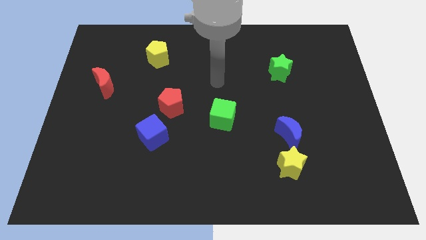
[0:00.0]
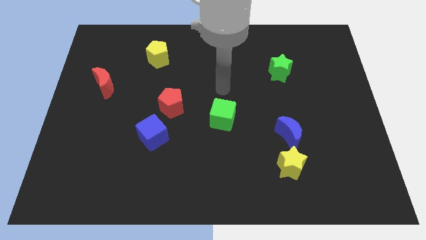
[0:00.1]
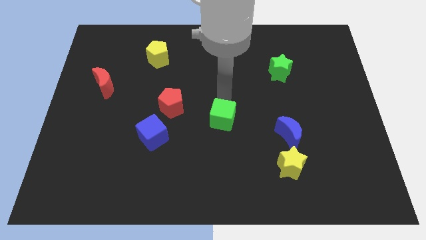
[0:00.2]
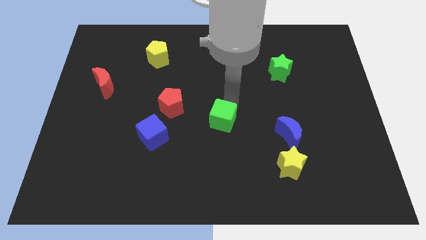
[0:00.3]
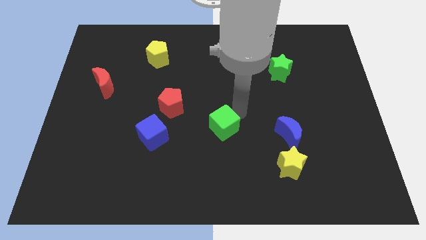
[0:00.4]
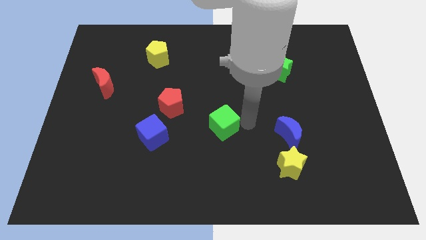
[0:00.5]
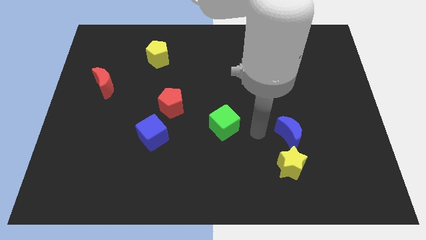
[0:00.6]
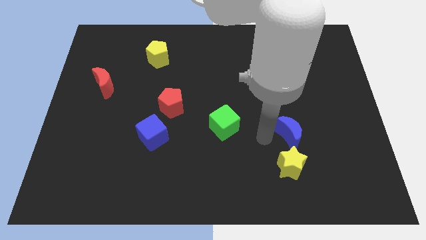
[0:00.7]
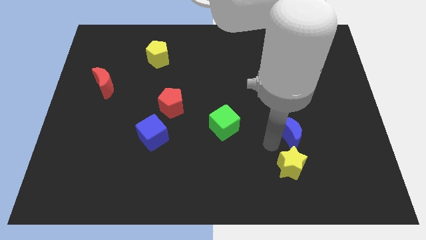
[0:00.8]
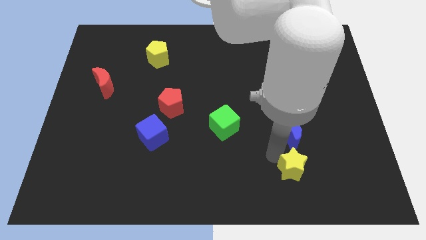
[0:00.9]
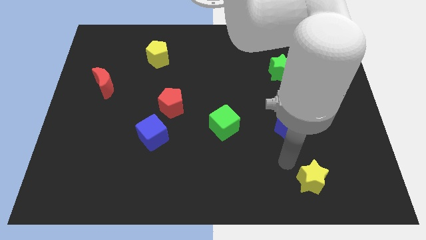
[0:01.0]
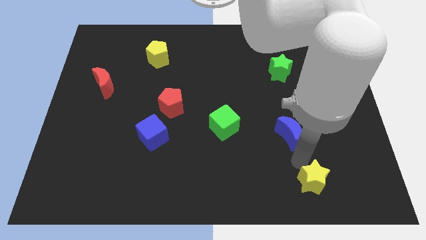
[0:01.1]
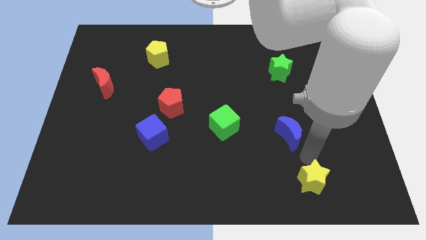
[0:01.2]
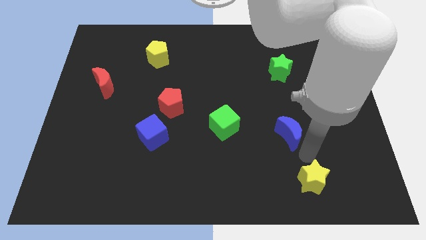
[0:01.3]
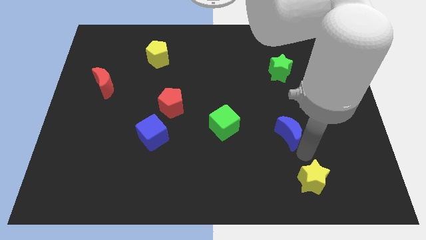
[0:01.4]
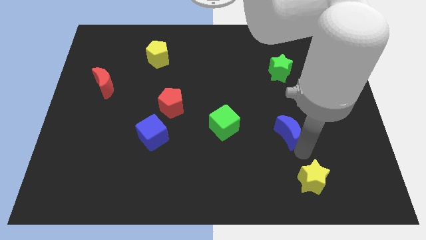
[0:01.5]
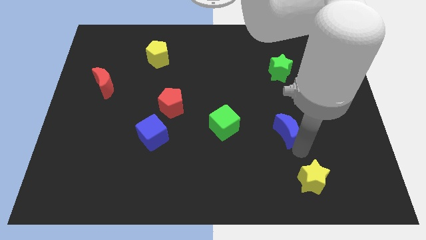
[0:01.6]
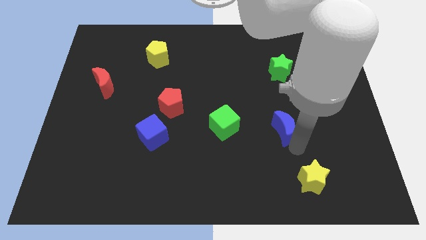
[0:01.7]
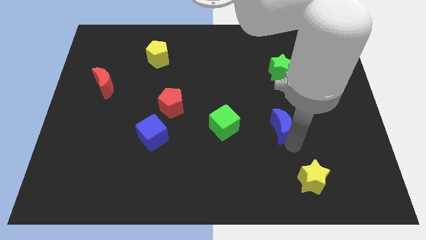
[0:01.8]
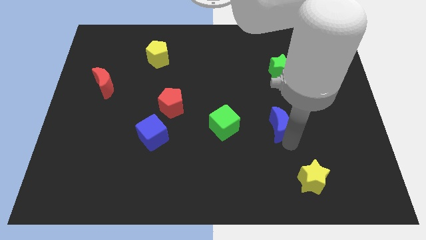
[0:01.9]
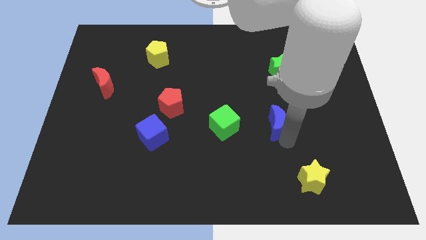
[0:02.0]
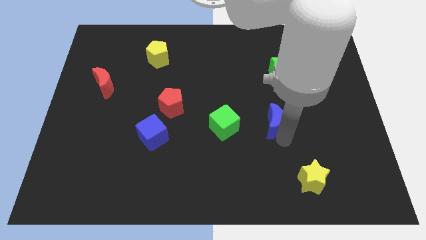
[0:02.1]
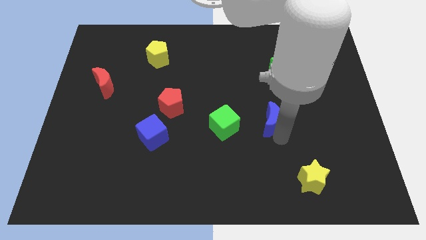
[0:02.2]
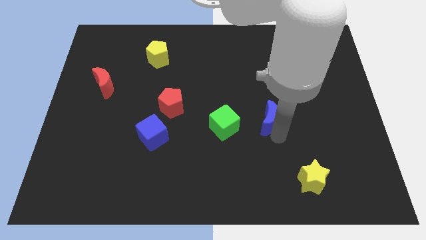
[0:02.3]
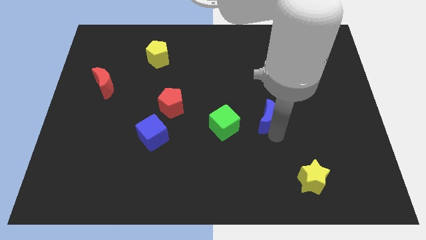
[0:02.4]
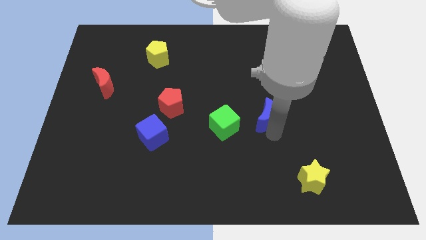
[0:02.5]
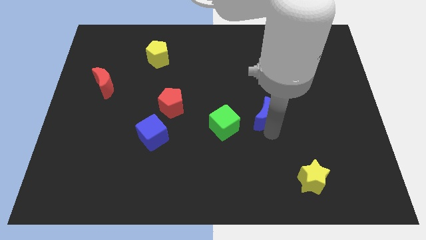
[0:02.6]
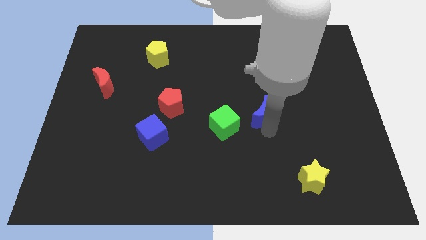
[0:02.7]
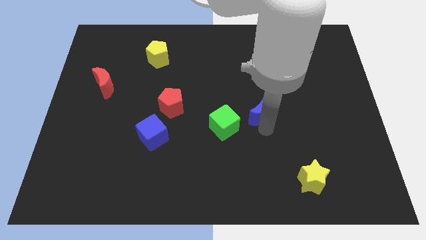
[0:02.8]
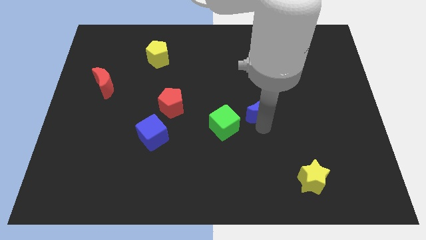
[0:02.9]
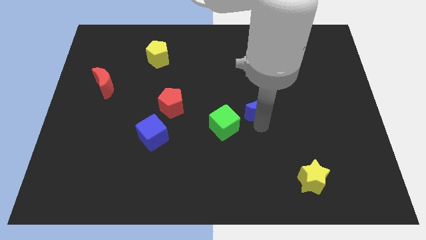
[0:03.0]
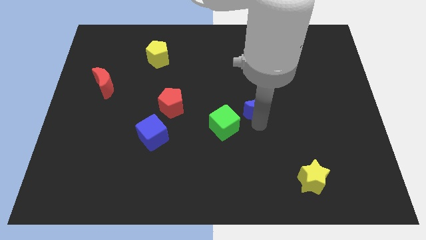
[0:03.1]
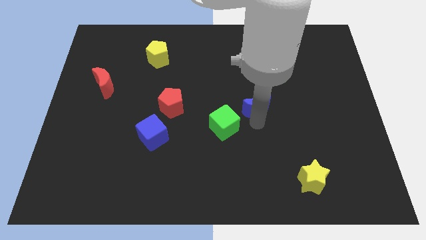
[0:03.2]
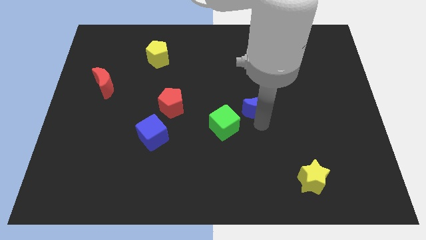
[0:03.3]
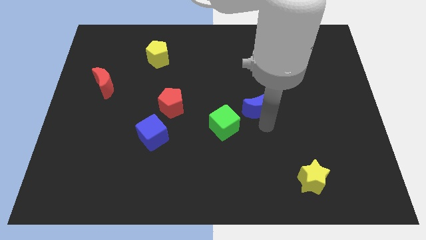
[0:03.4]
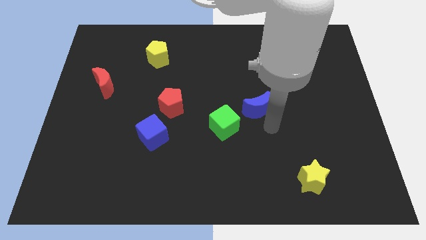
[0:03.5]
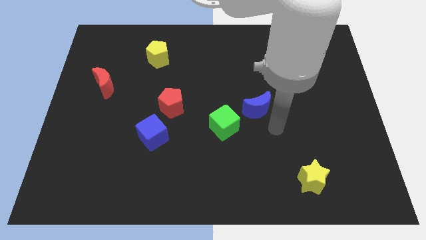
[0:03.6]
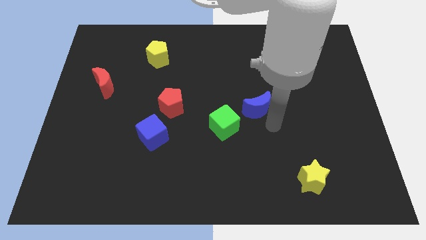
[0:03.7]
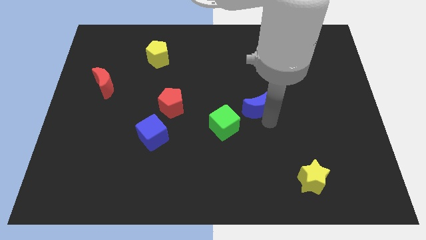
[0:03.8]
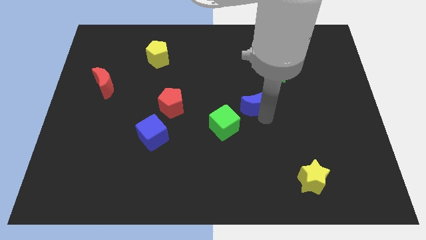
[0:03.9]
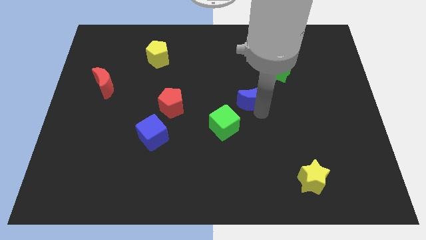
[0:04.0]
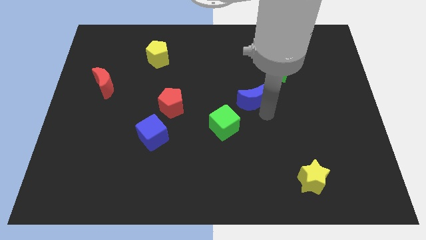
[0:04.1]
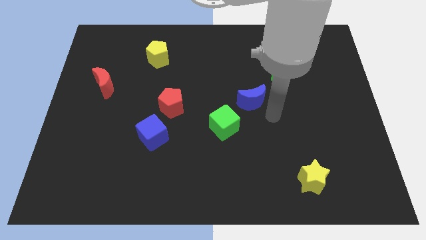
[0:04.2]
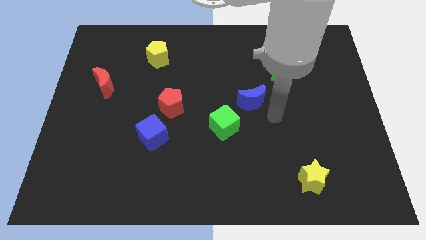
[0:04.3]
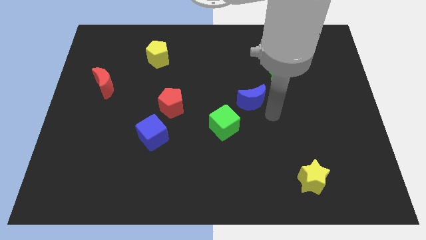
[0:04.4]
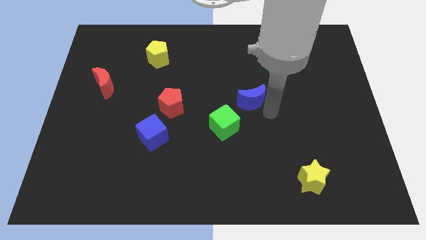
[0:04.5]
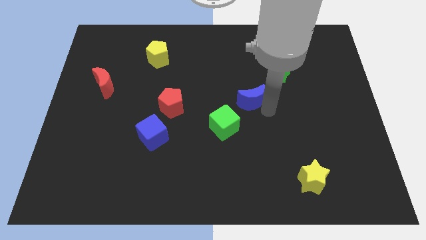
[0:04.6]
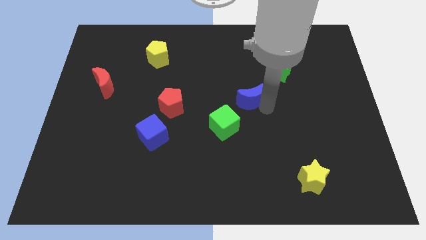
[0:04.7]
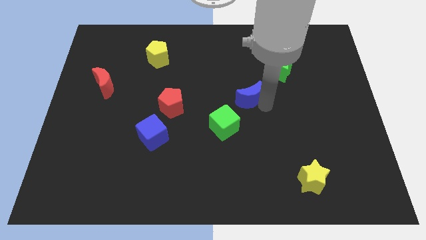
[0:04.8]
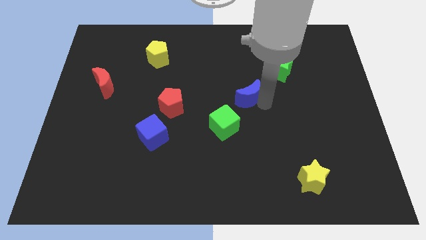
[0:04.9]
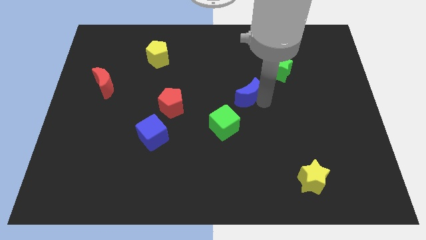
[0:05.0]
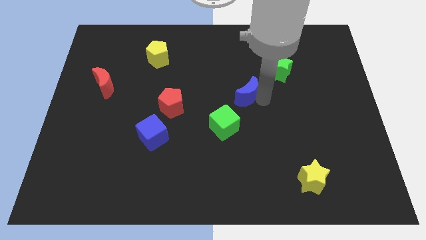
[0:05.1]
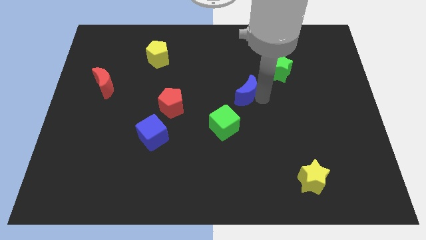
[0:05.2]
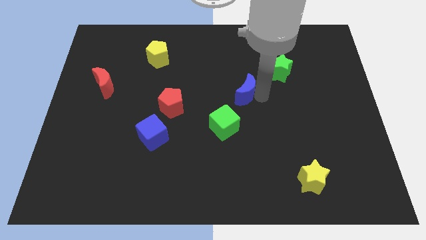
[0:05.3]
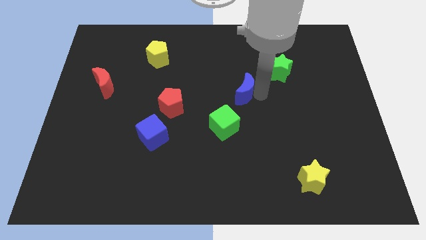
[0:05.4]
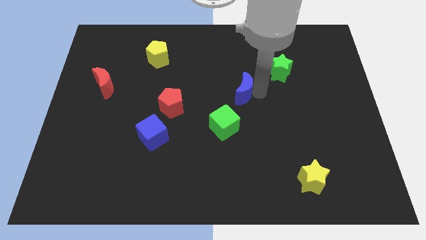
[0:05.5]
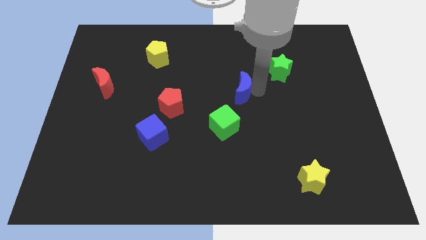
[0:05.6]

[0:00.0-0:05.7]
move the blue moon to the top of the green cube

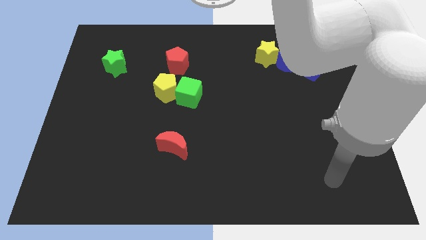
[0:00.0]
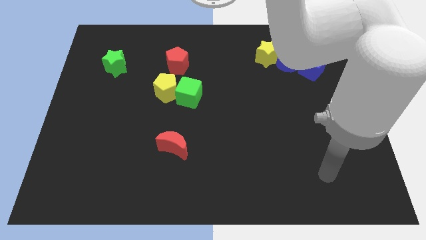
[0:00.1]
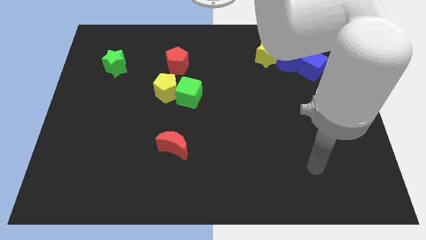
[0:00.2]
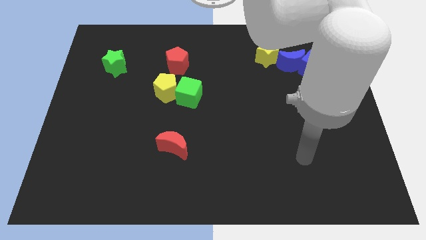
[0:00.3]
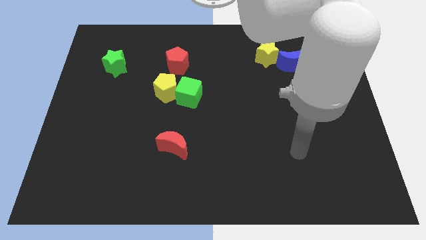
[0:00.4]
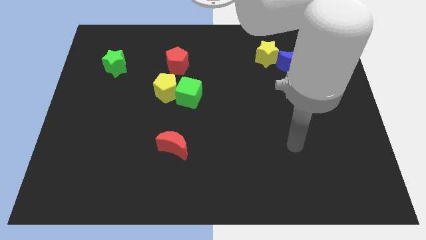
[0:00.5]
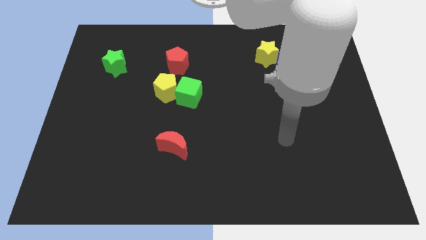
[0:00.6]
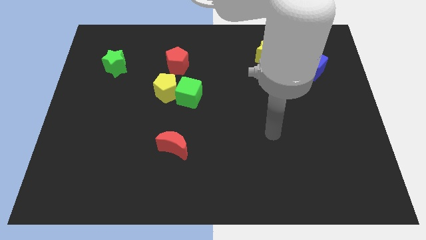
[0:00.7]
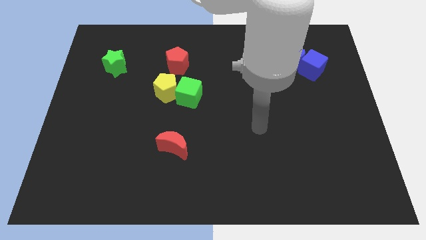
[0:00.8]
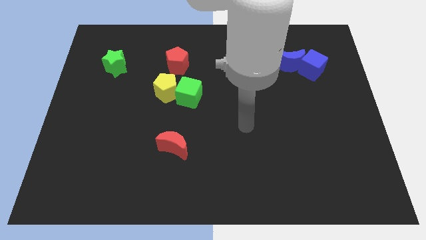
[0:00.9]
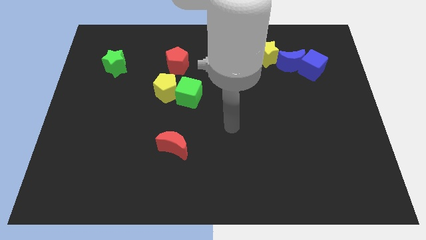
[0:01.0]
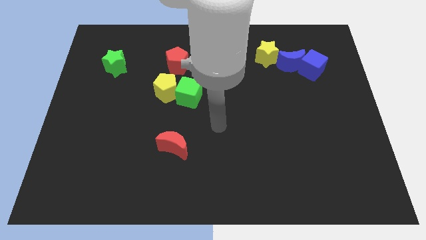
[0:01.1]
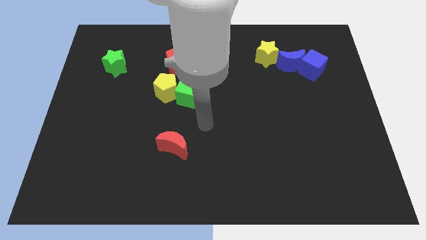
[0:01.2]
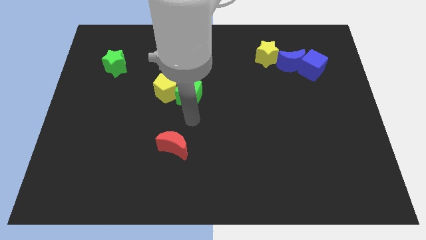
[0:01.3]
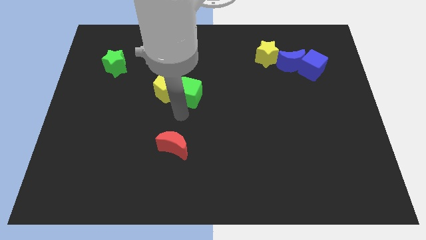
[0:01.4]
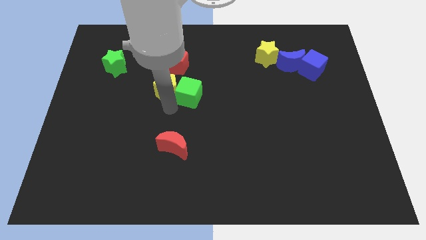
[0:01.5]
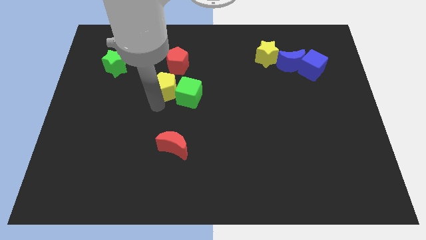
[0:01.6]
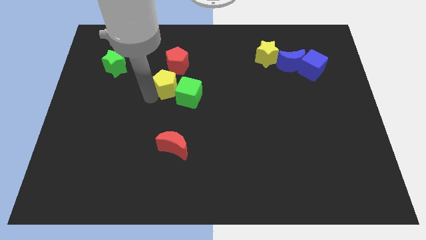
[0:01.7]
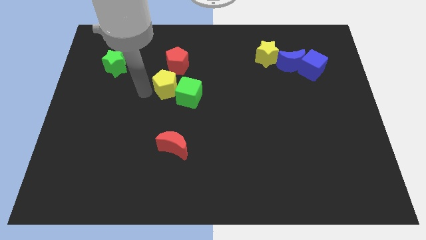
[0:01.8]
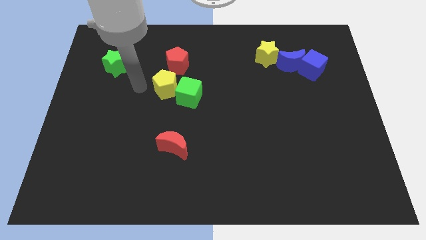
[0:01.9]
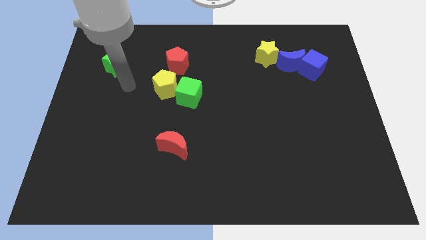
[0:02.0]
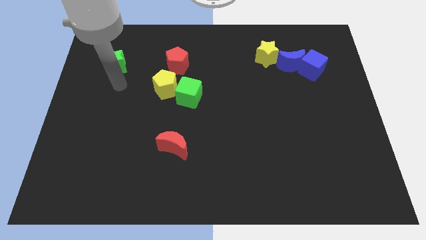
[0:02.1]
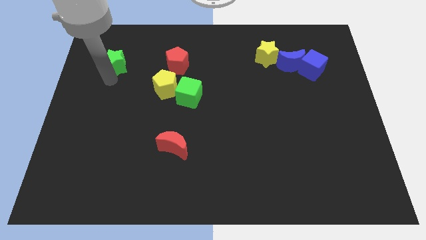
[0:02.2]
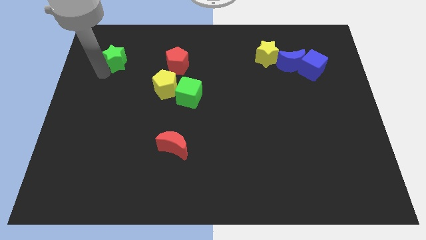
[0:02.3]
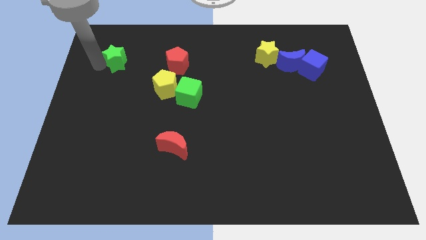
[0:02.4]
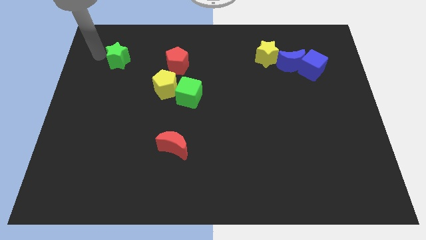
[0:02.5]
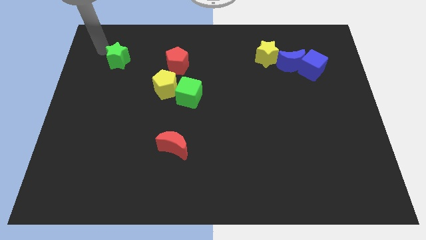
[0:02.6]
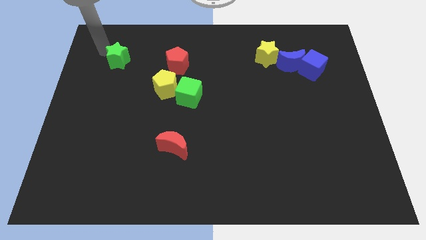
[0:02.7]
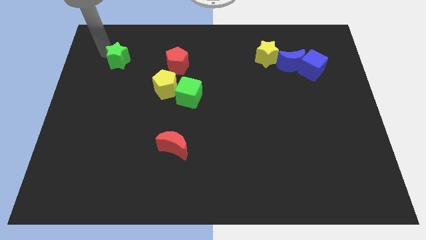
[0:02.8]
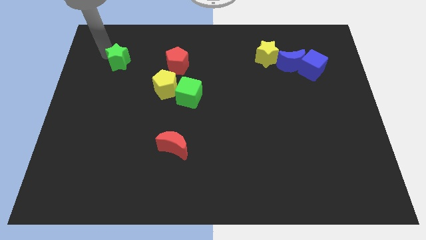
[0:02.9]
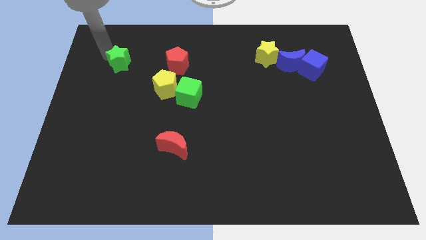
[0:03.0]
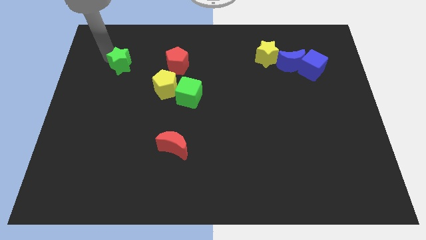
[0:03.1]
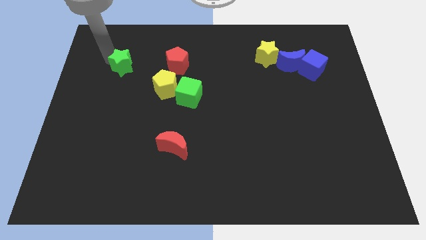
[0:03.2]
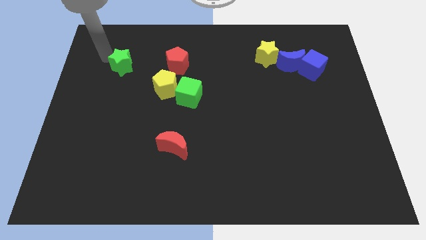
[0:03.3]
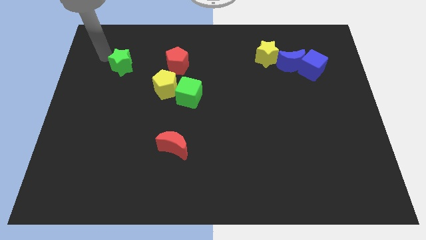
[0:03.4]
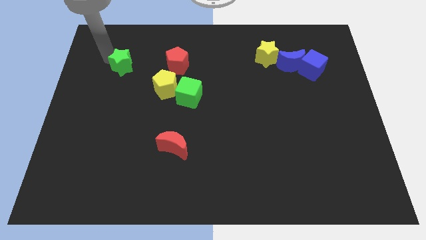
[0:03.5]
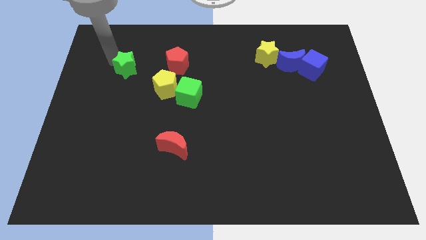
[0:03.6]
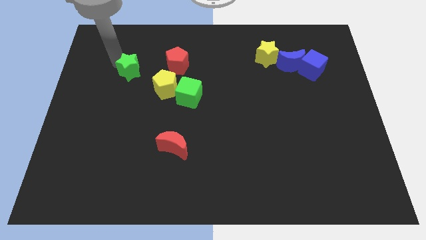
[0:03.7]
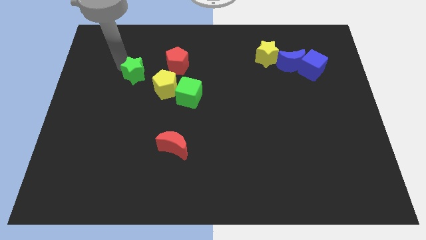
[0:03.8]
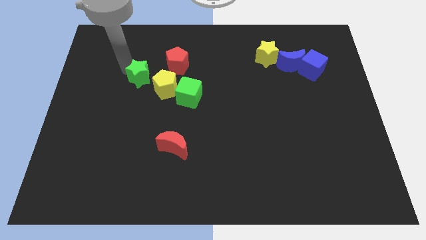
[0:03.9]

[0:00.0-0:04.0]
slide the green star to the bottom left side of the red pentagon
